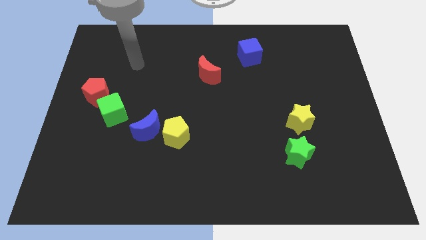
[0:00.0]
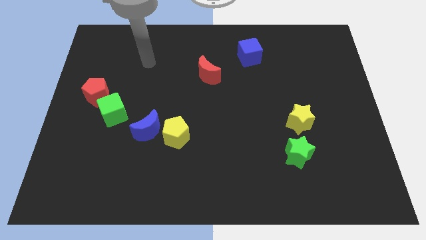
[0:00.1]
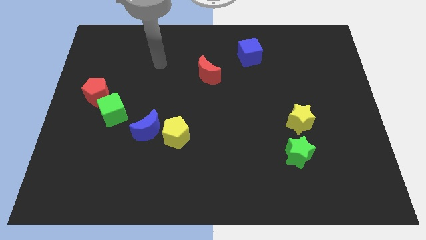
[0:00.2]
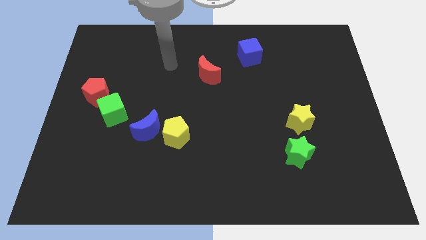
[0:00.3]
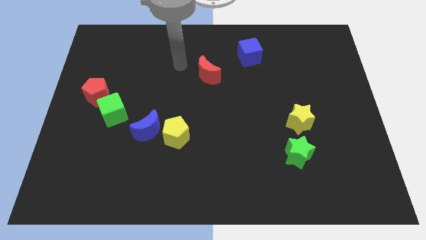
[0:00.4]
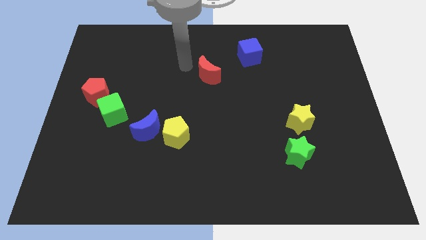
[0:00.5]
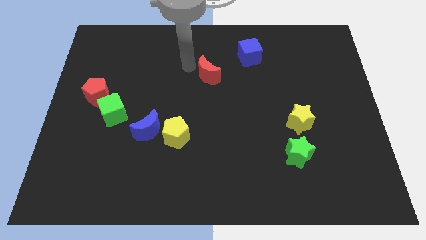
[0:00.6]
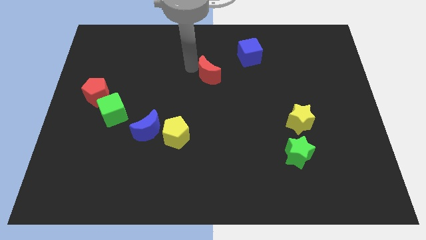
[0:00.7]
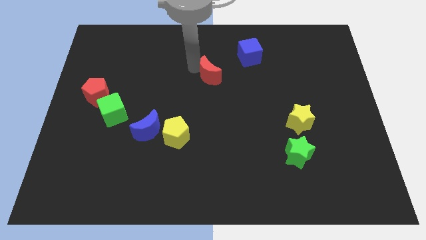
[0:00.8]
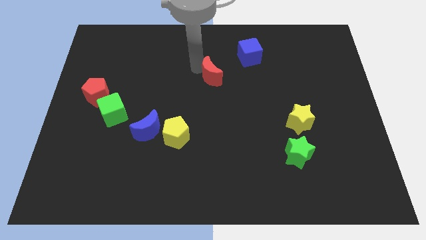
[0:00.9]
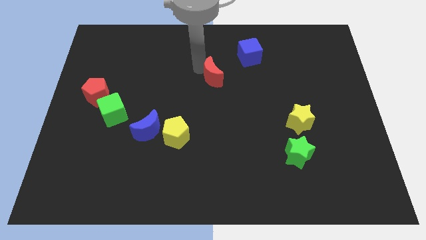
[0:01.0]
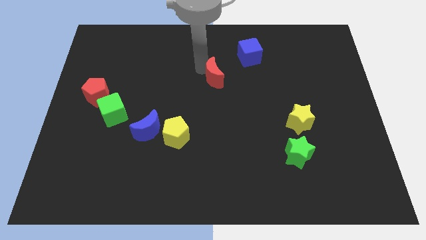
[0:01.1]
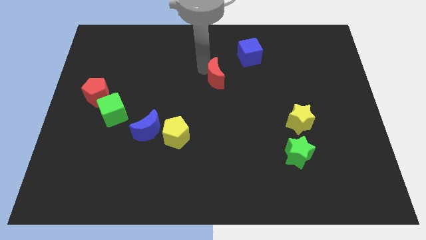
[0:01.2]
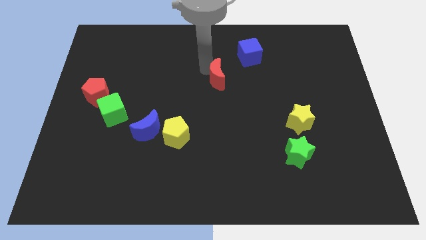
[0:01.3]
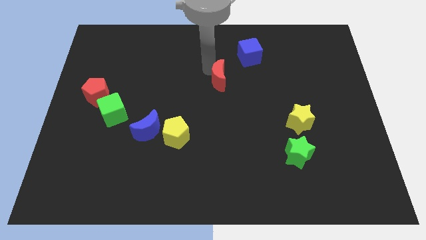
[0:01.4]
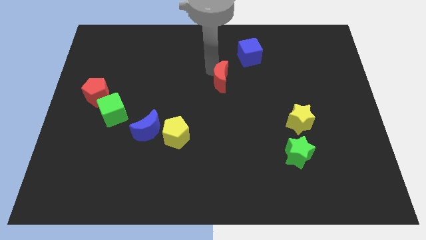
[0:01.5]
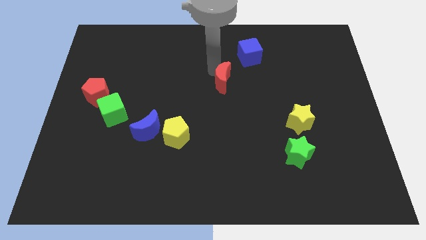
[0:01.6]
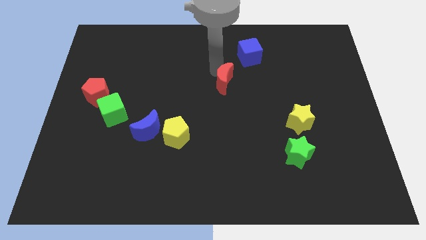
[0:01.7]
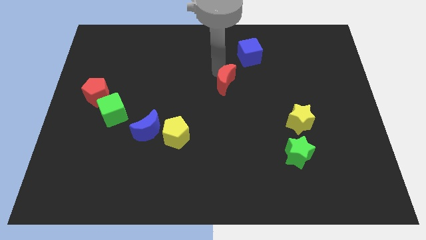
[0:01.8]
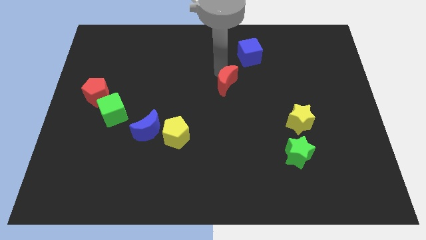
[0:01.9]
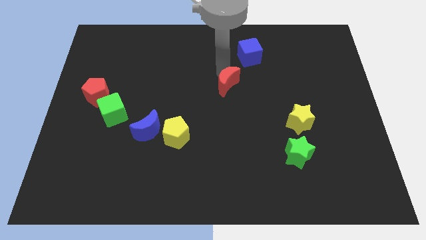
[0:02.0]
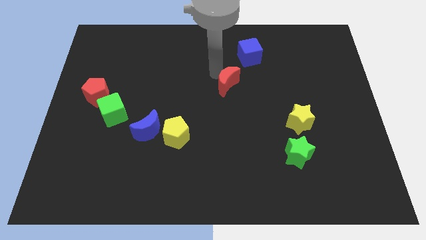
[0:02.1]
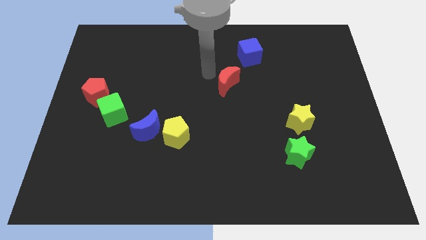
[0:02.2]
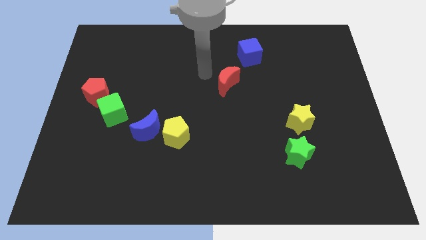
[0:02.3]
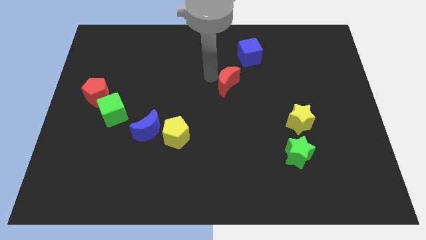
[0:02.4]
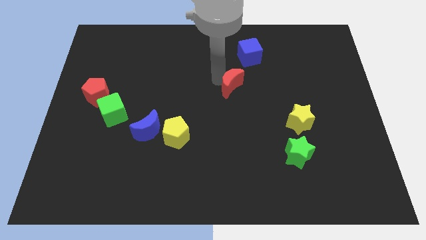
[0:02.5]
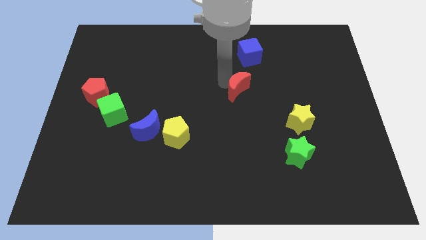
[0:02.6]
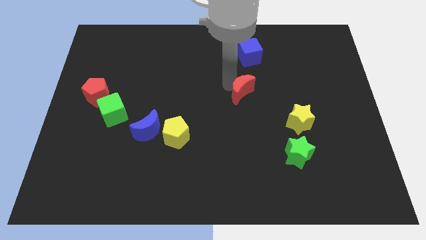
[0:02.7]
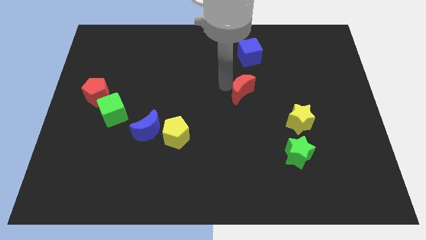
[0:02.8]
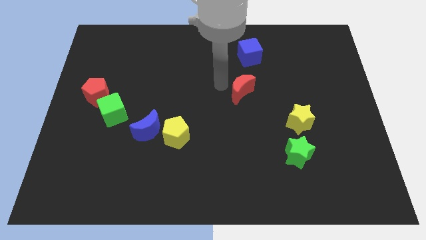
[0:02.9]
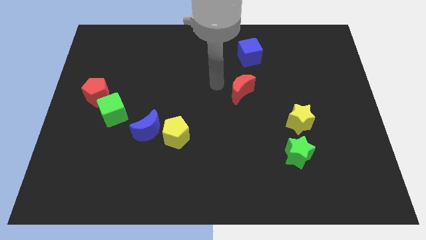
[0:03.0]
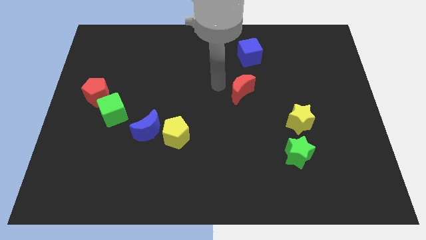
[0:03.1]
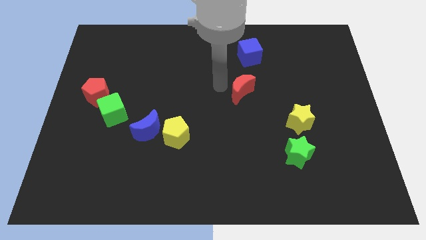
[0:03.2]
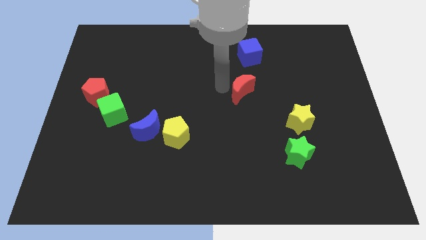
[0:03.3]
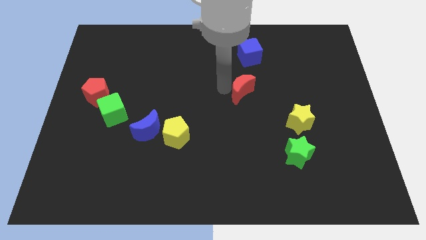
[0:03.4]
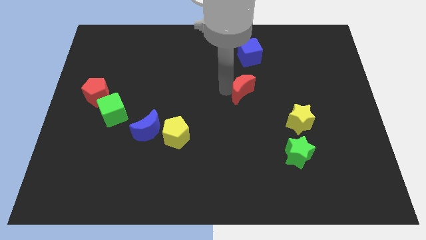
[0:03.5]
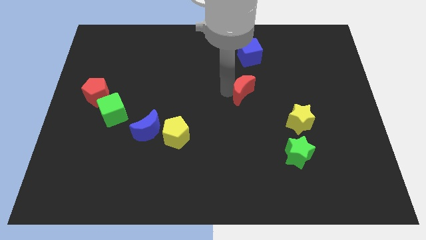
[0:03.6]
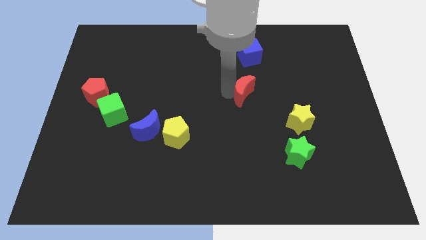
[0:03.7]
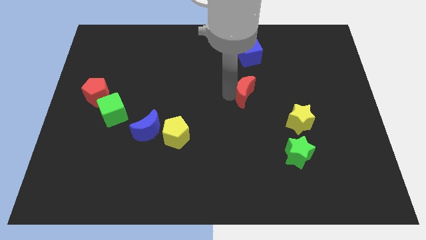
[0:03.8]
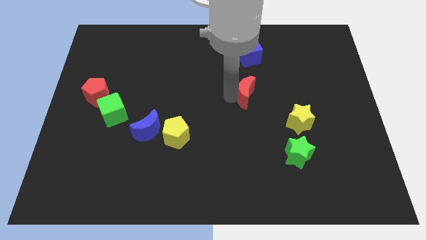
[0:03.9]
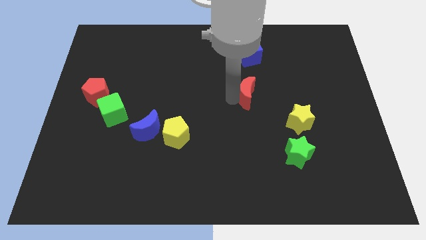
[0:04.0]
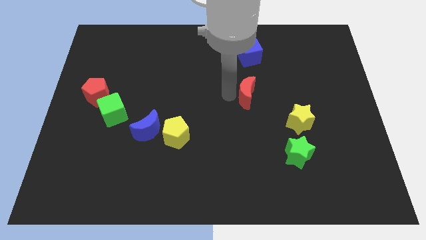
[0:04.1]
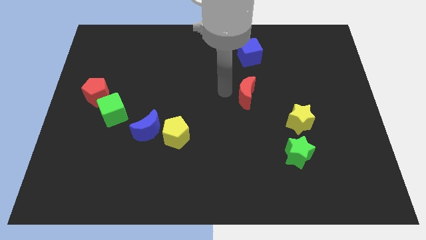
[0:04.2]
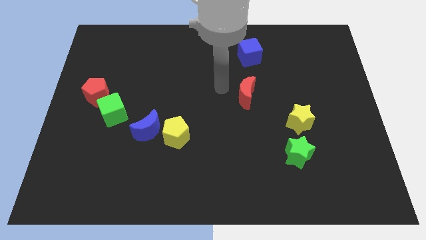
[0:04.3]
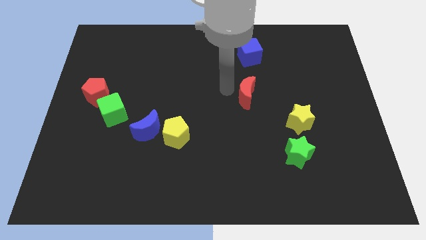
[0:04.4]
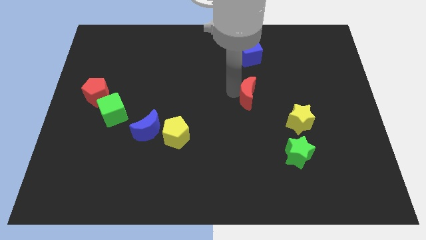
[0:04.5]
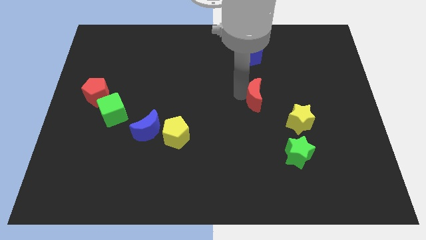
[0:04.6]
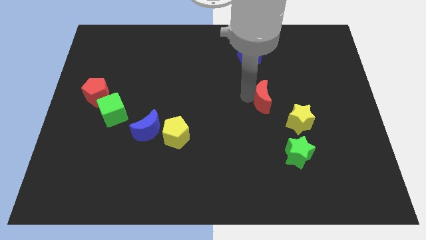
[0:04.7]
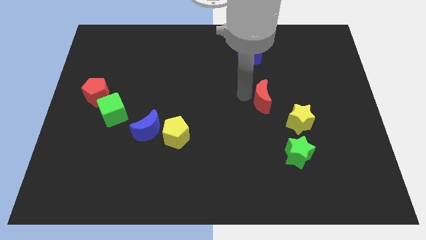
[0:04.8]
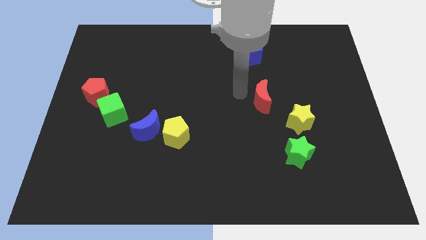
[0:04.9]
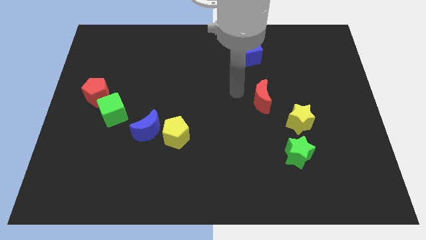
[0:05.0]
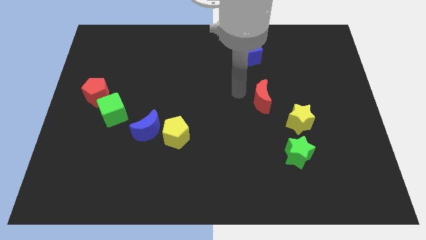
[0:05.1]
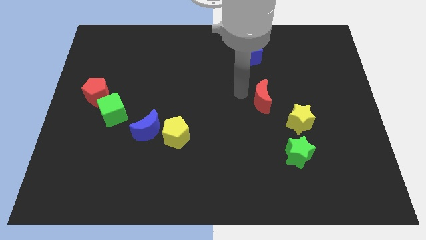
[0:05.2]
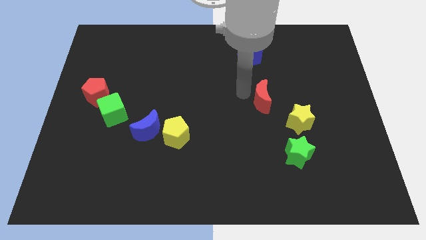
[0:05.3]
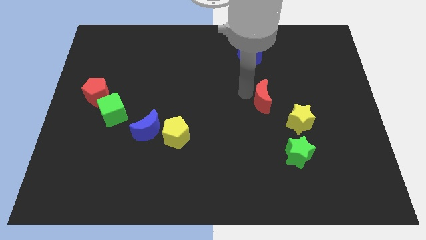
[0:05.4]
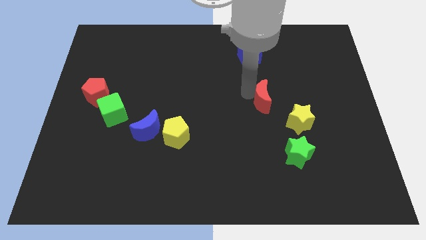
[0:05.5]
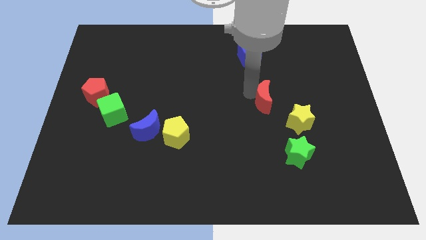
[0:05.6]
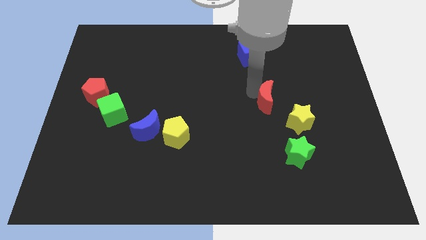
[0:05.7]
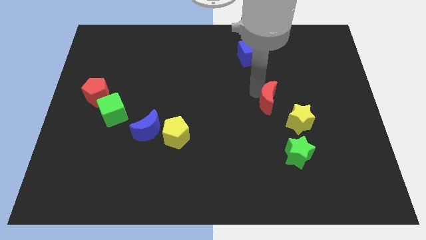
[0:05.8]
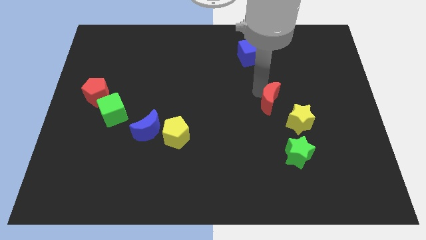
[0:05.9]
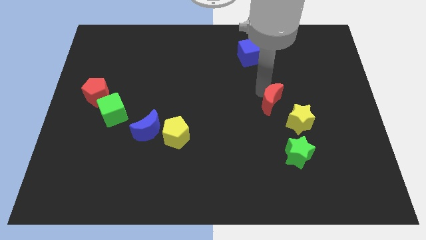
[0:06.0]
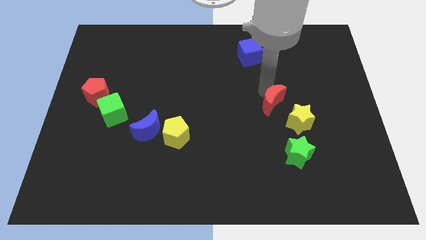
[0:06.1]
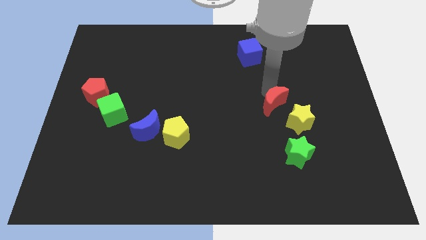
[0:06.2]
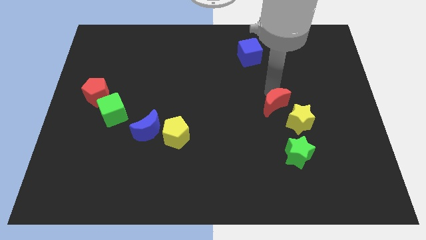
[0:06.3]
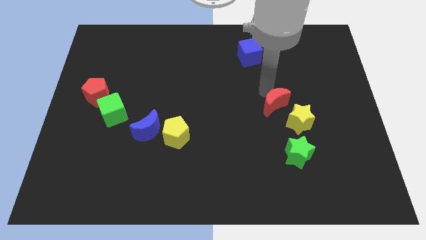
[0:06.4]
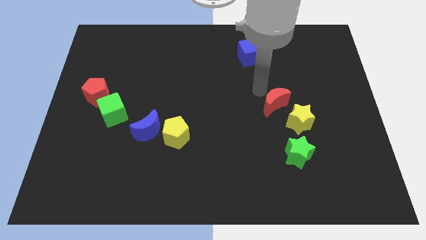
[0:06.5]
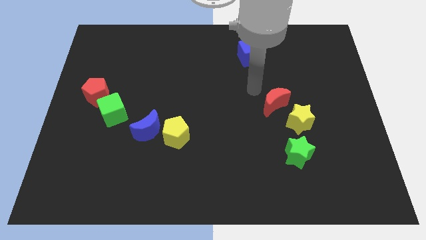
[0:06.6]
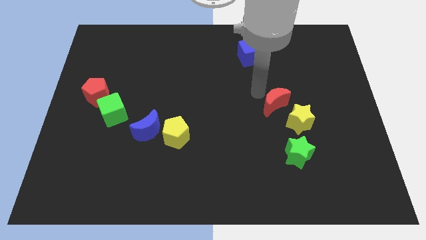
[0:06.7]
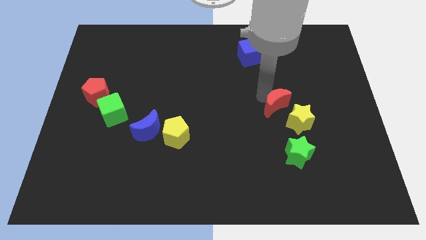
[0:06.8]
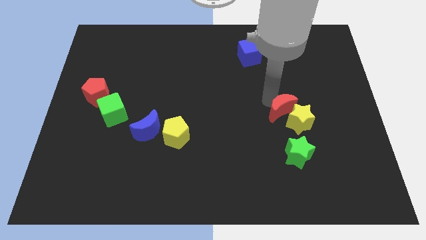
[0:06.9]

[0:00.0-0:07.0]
push the red moon close to the yellow star

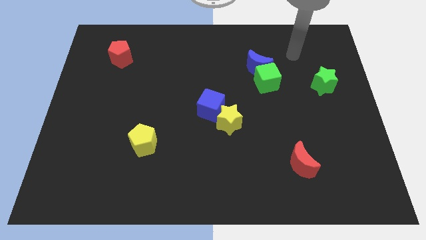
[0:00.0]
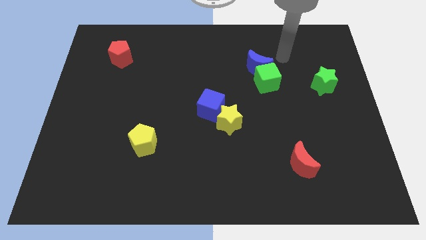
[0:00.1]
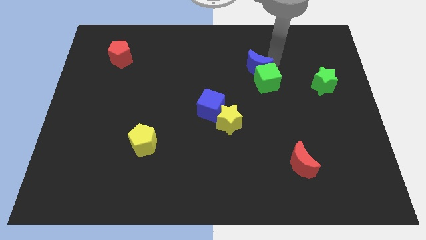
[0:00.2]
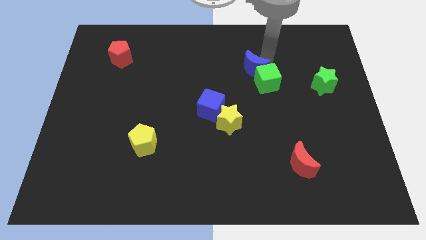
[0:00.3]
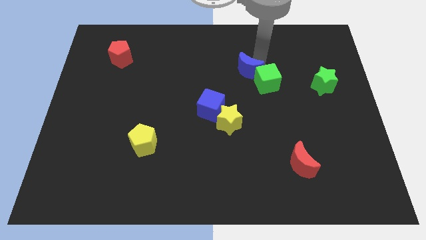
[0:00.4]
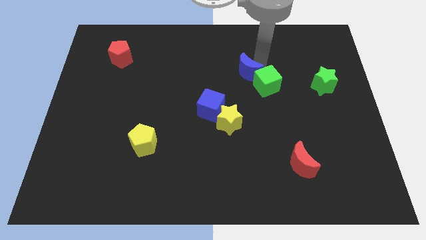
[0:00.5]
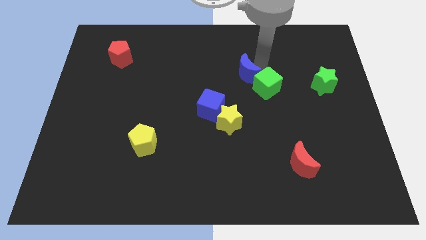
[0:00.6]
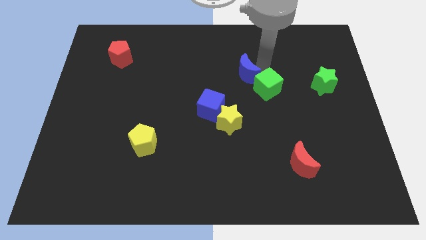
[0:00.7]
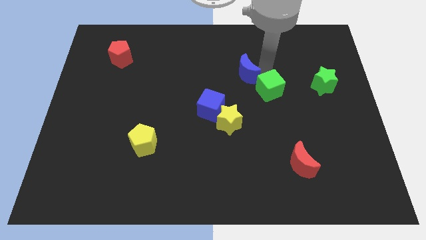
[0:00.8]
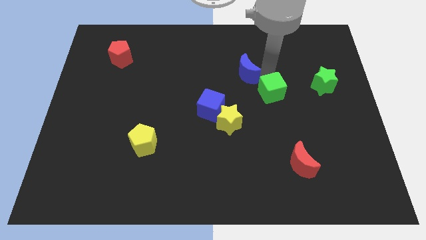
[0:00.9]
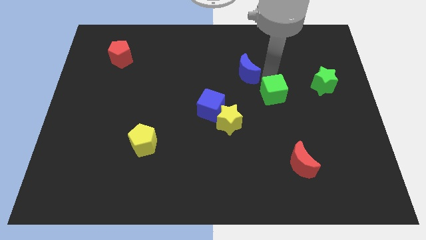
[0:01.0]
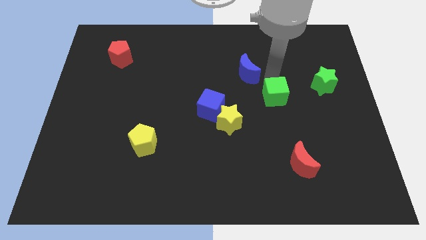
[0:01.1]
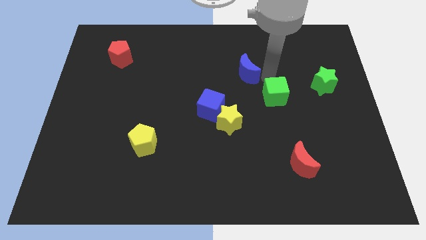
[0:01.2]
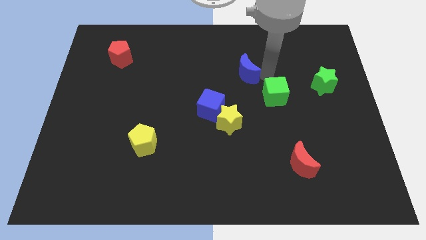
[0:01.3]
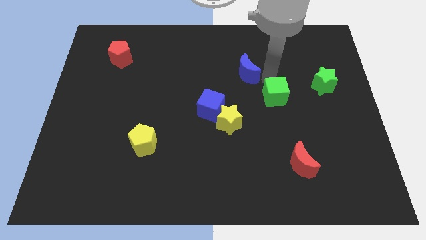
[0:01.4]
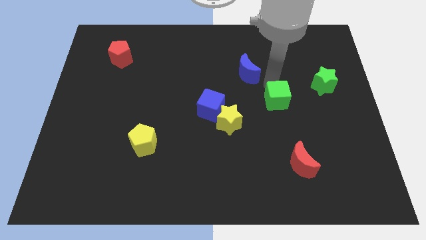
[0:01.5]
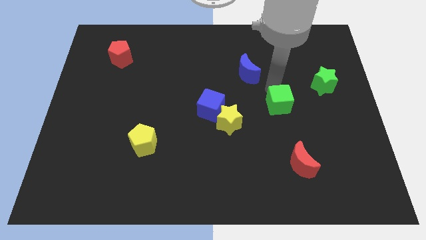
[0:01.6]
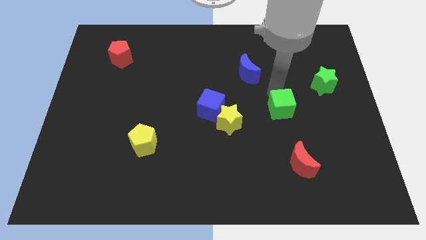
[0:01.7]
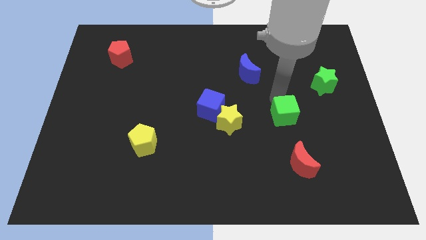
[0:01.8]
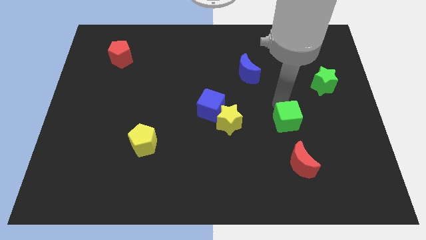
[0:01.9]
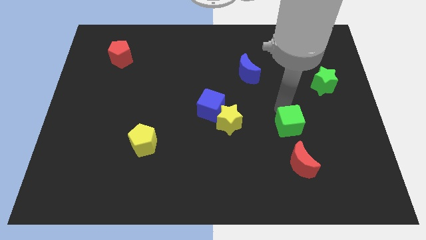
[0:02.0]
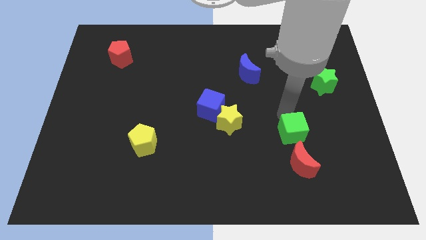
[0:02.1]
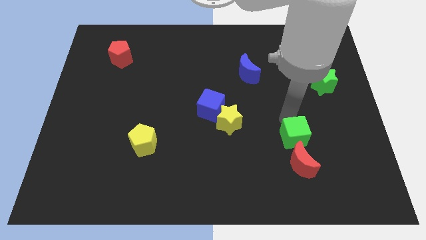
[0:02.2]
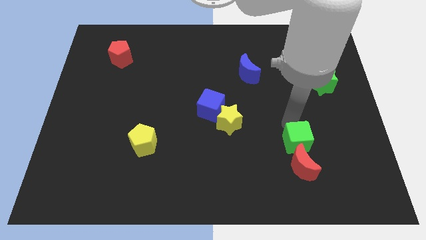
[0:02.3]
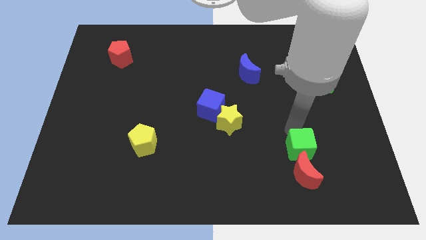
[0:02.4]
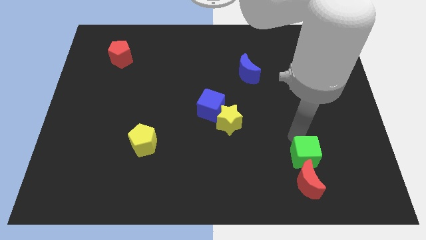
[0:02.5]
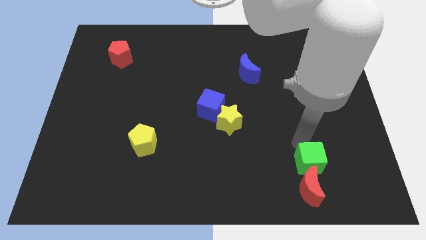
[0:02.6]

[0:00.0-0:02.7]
slide the green cube towards the red moon
